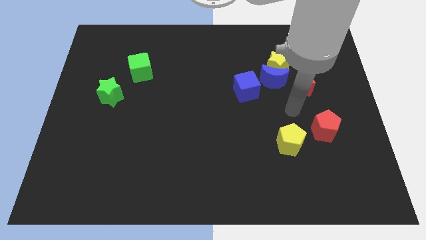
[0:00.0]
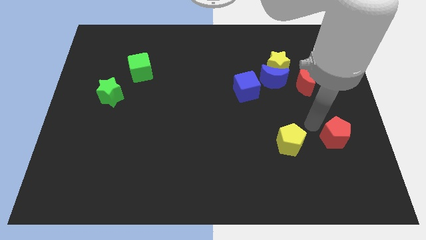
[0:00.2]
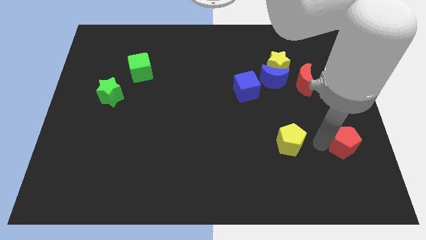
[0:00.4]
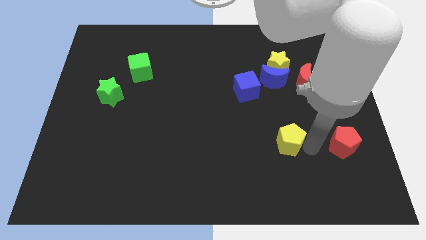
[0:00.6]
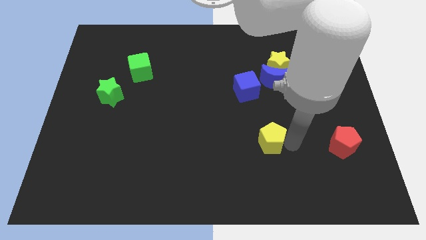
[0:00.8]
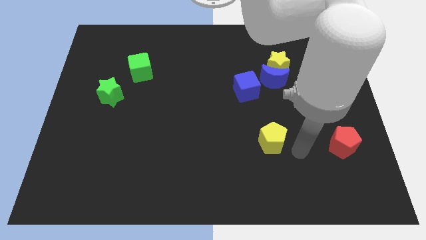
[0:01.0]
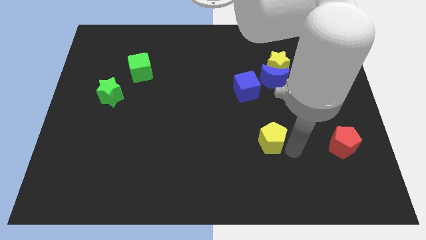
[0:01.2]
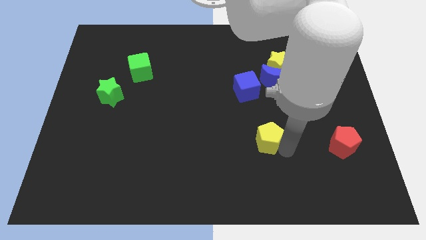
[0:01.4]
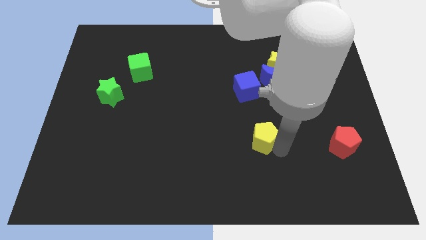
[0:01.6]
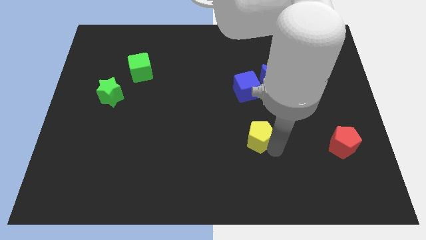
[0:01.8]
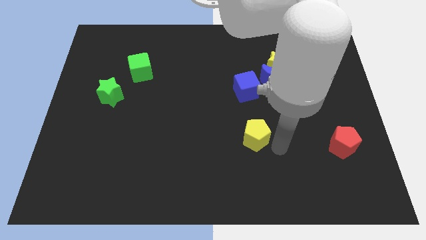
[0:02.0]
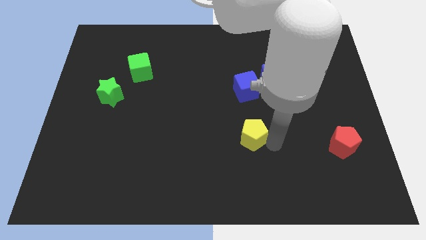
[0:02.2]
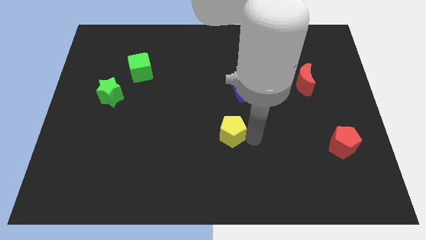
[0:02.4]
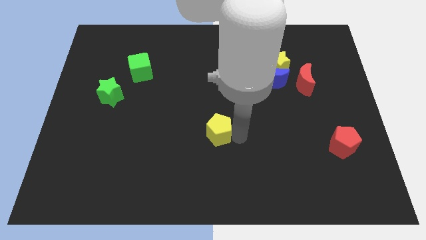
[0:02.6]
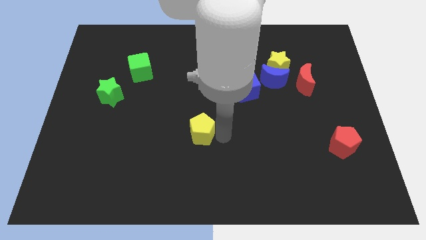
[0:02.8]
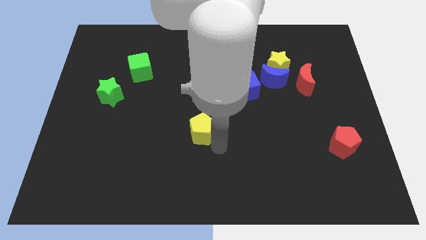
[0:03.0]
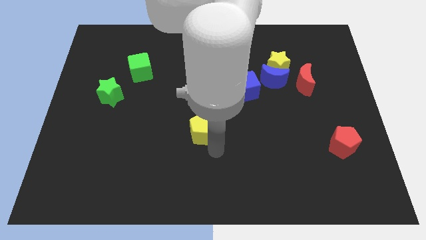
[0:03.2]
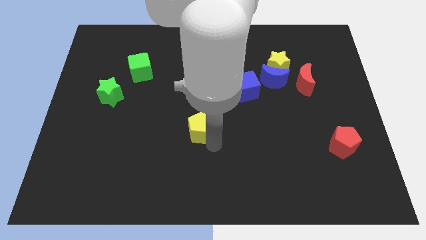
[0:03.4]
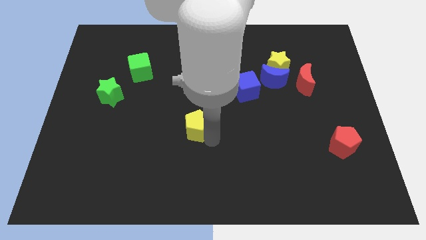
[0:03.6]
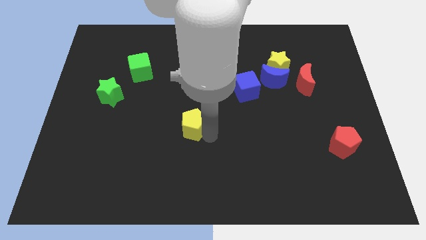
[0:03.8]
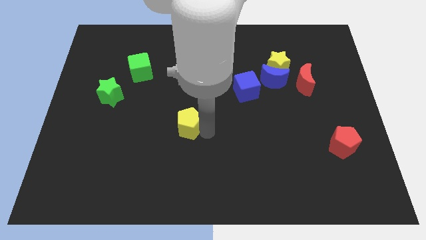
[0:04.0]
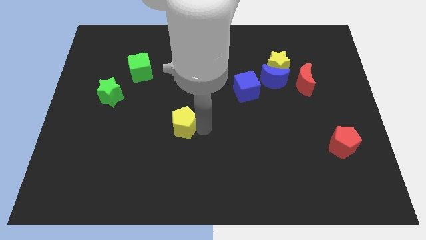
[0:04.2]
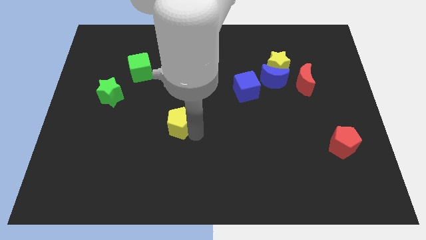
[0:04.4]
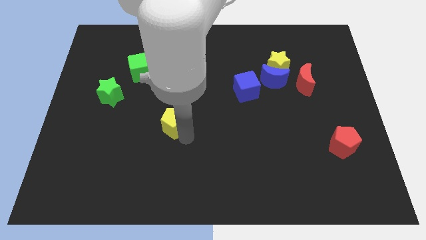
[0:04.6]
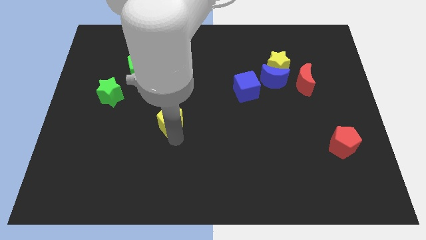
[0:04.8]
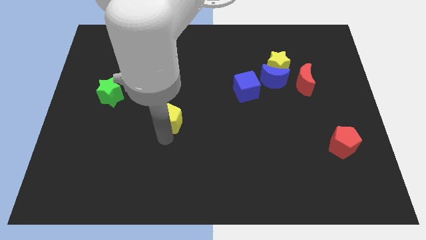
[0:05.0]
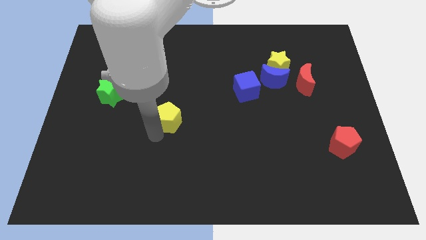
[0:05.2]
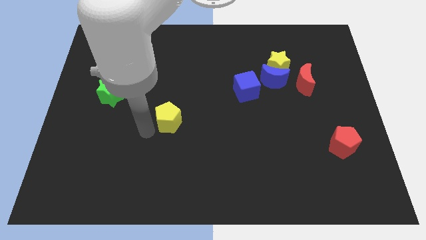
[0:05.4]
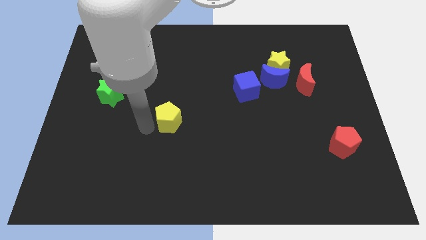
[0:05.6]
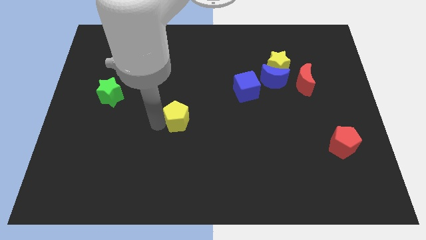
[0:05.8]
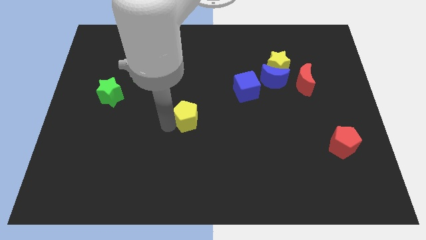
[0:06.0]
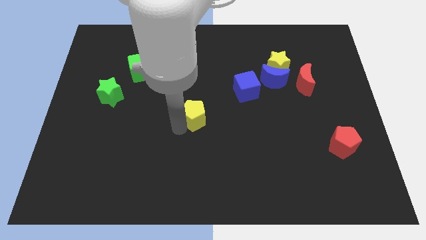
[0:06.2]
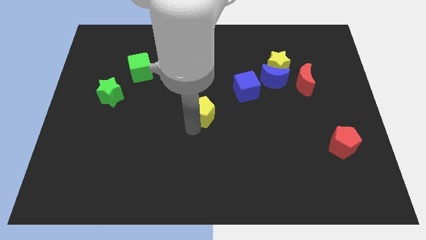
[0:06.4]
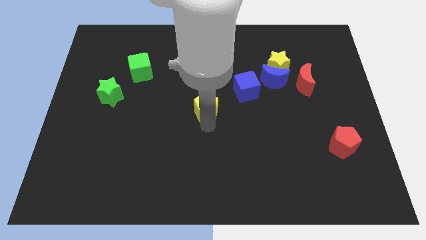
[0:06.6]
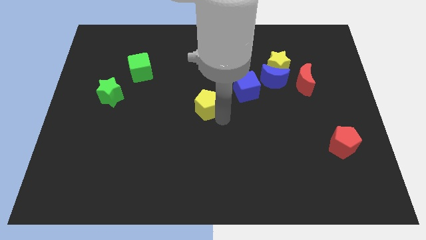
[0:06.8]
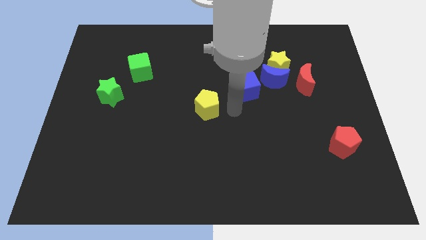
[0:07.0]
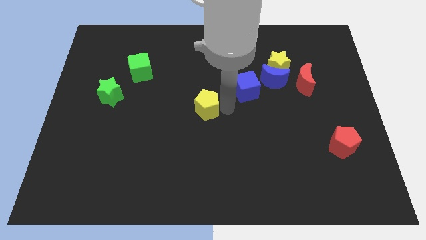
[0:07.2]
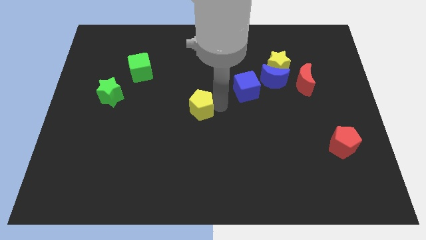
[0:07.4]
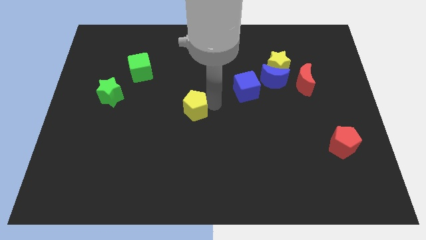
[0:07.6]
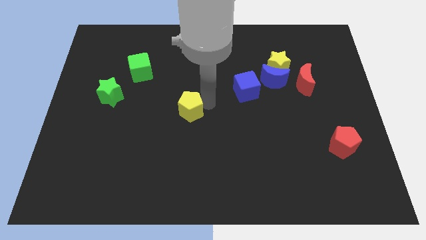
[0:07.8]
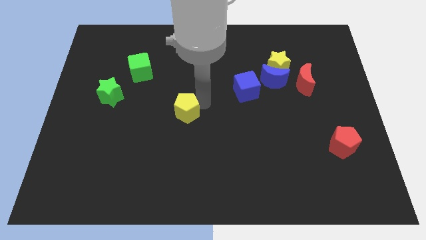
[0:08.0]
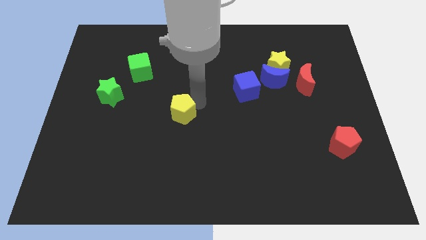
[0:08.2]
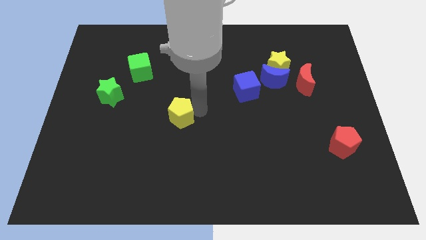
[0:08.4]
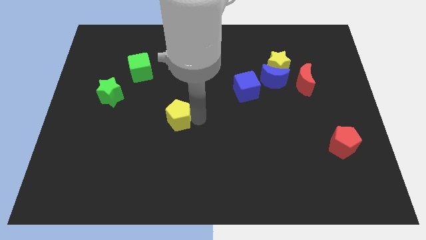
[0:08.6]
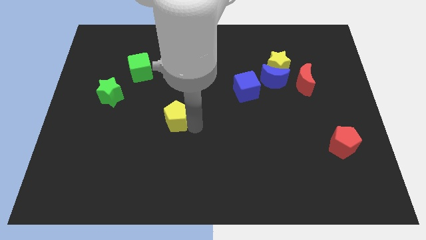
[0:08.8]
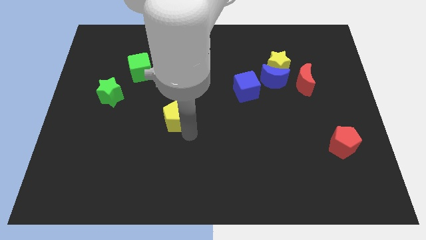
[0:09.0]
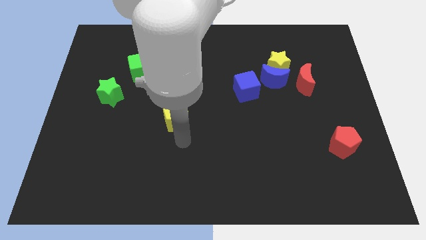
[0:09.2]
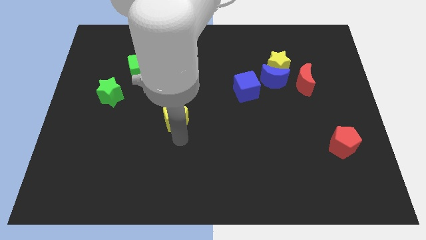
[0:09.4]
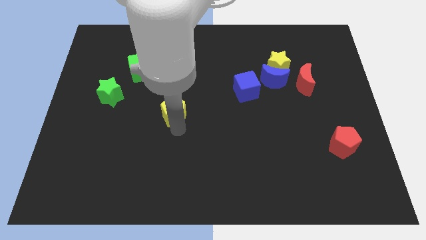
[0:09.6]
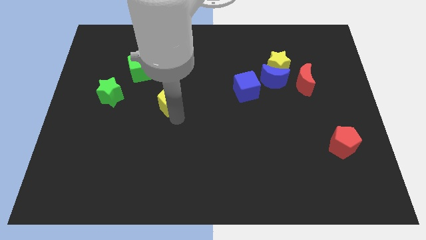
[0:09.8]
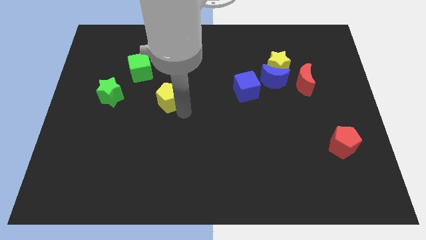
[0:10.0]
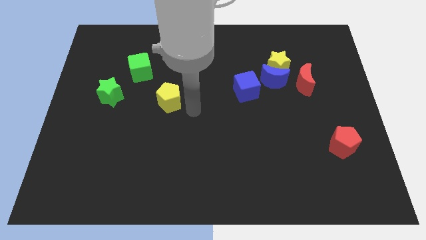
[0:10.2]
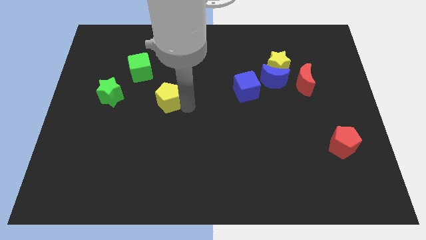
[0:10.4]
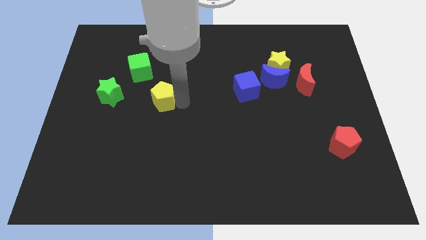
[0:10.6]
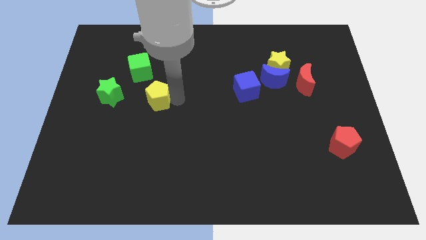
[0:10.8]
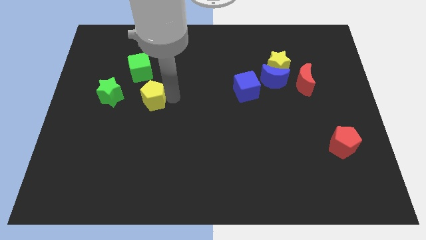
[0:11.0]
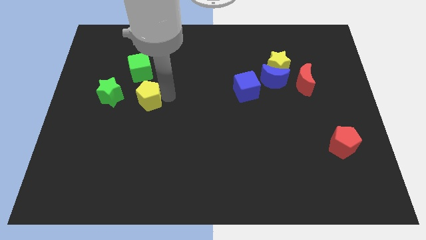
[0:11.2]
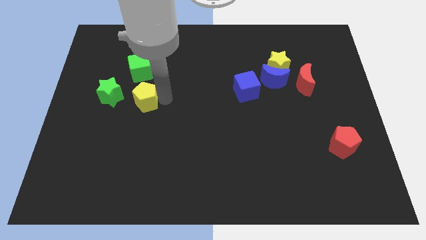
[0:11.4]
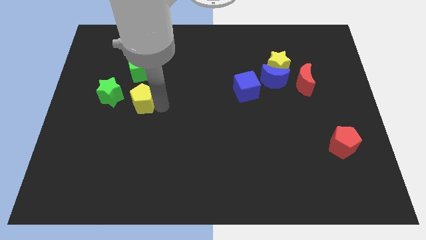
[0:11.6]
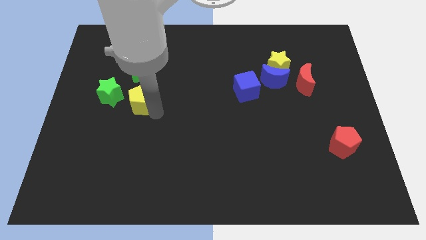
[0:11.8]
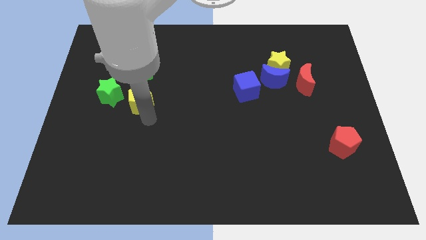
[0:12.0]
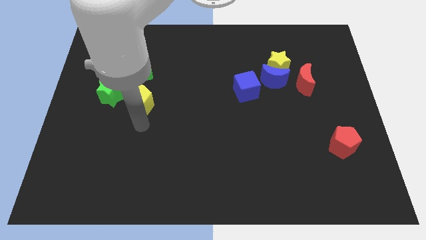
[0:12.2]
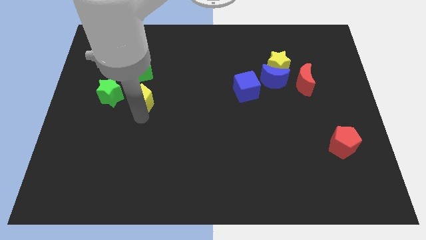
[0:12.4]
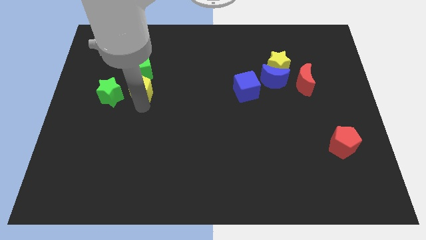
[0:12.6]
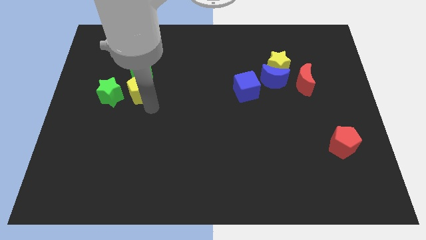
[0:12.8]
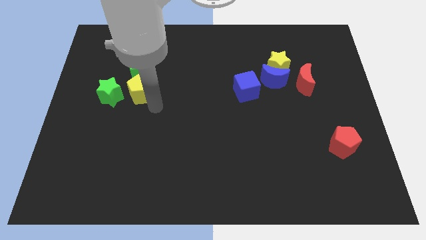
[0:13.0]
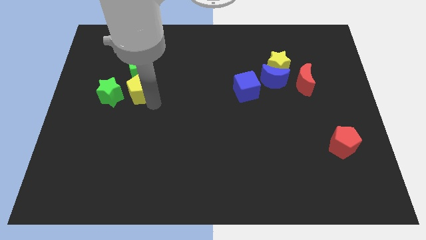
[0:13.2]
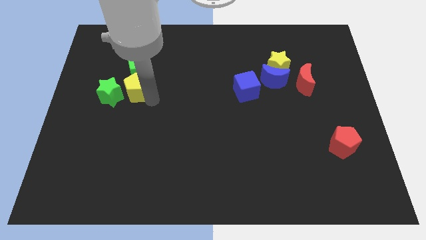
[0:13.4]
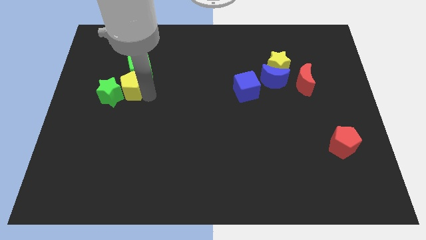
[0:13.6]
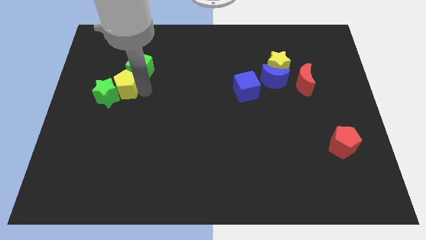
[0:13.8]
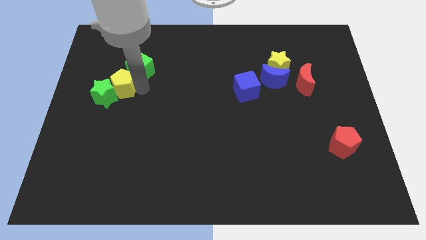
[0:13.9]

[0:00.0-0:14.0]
slide the yellow pentagon to the top side of the green star
